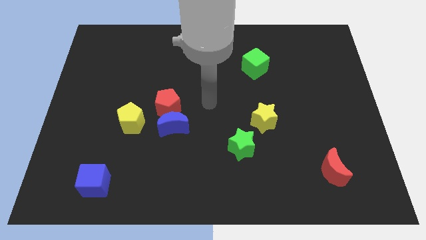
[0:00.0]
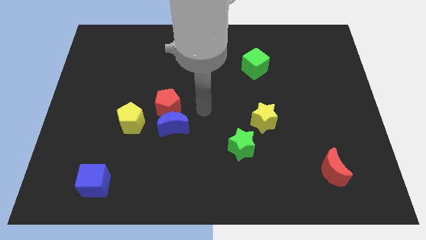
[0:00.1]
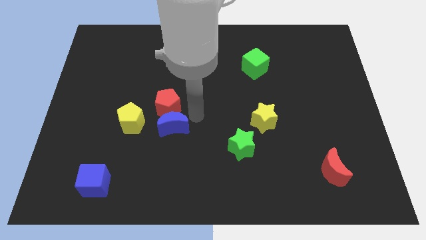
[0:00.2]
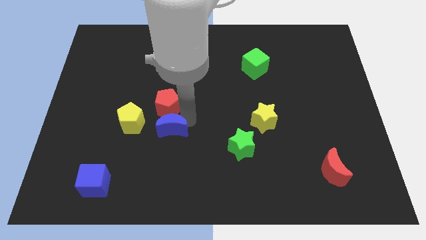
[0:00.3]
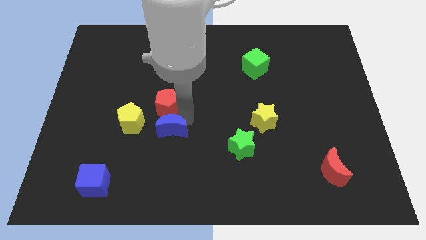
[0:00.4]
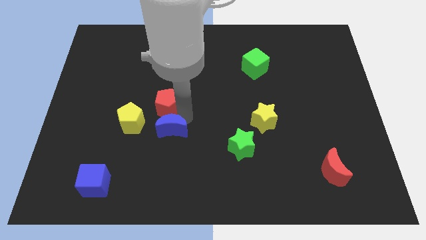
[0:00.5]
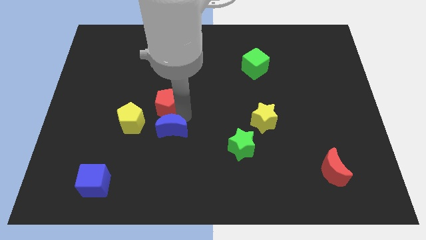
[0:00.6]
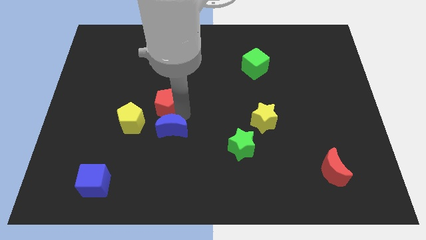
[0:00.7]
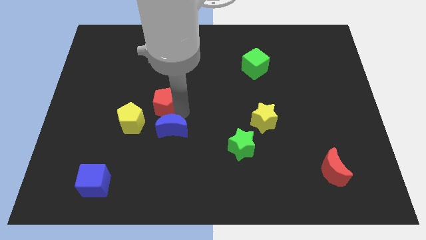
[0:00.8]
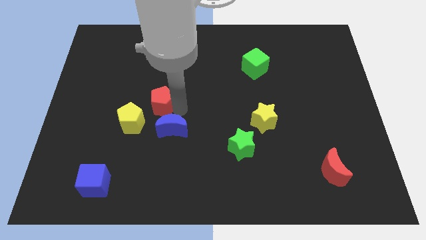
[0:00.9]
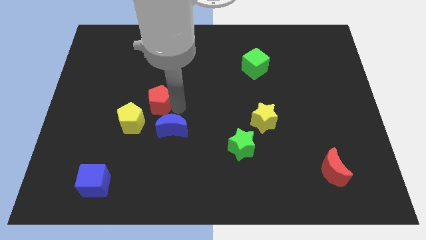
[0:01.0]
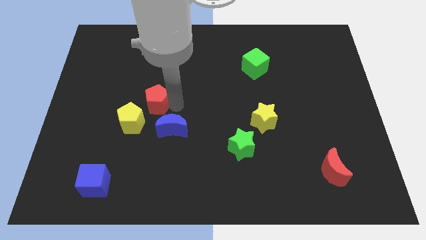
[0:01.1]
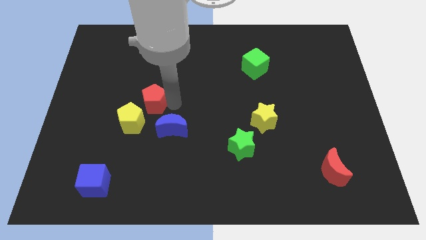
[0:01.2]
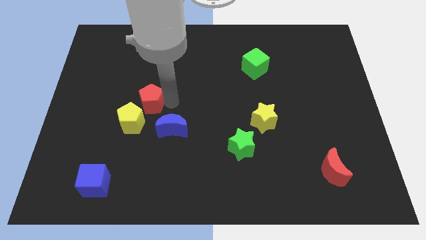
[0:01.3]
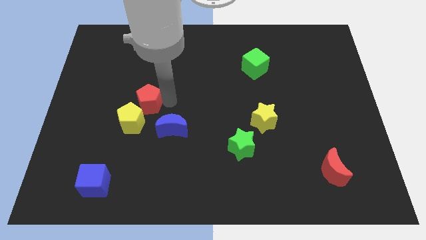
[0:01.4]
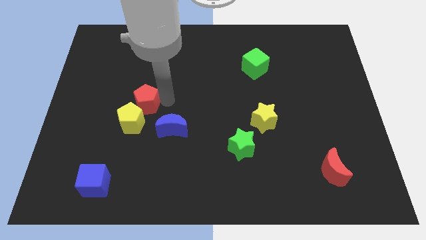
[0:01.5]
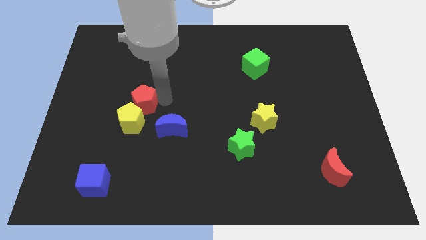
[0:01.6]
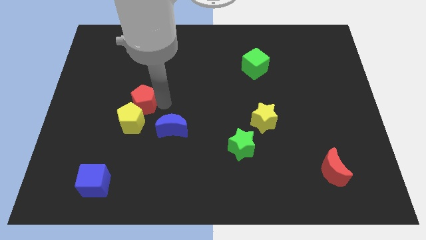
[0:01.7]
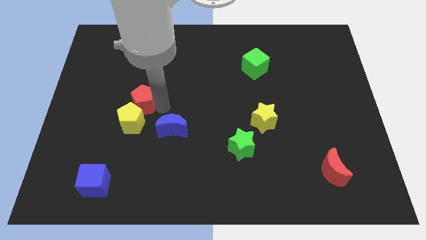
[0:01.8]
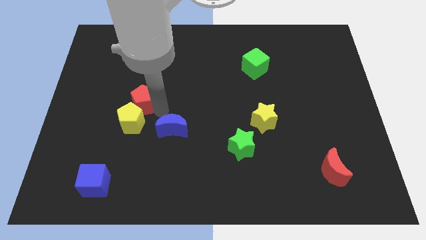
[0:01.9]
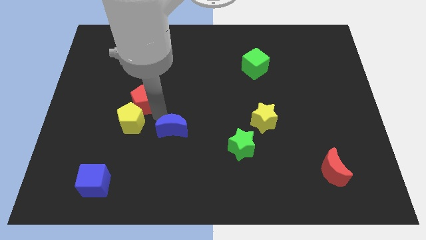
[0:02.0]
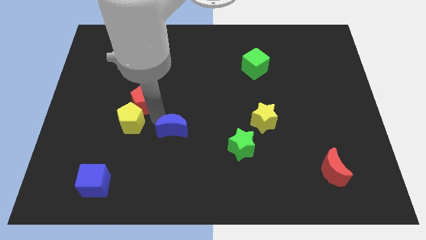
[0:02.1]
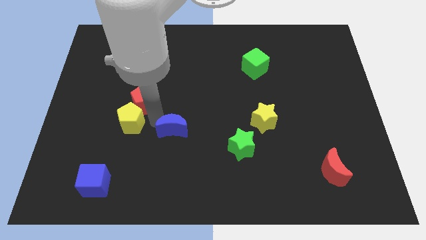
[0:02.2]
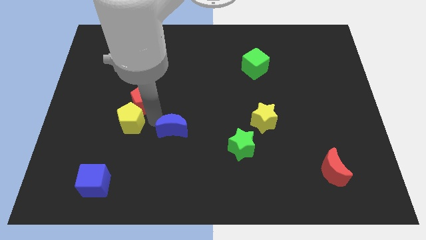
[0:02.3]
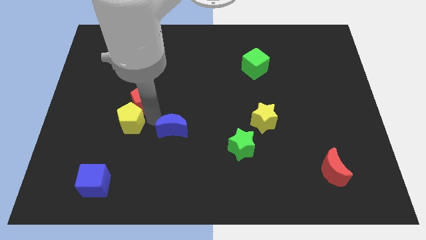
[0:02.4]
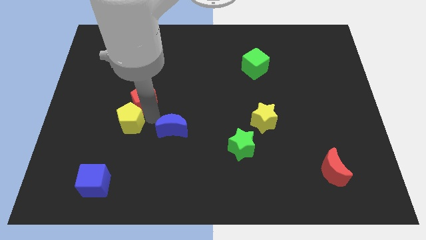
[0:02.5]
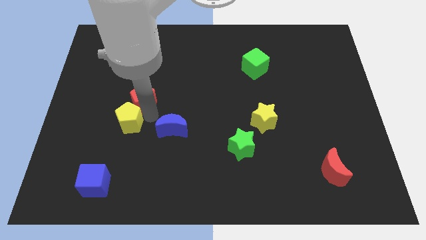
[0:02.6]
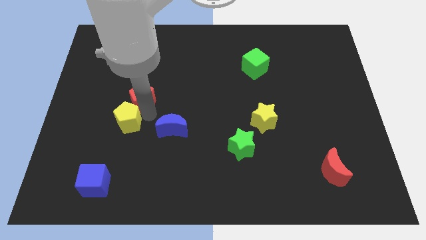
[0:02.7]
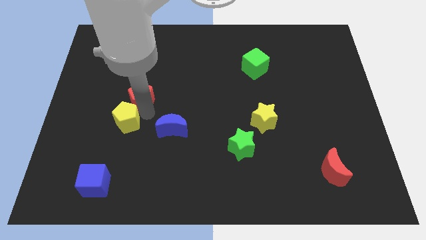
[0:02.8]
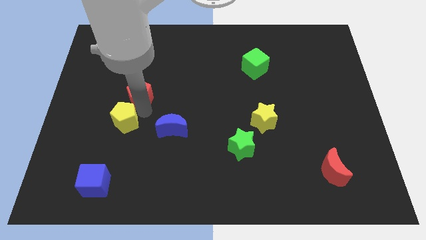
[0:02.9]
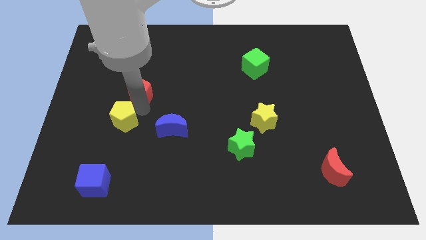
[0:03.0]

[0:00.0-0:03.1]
slightly push the red pentagon up and then to the left

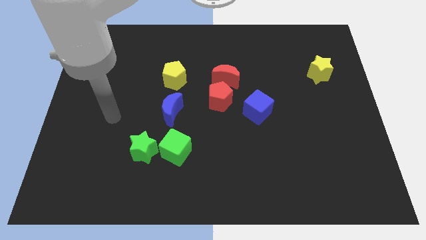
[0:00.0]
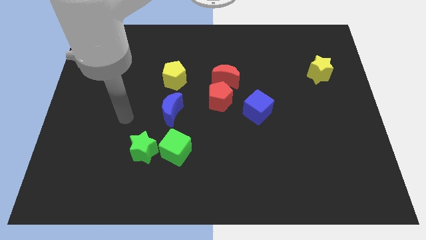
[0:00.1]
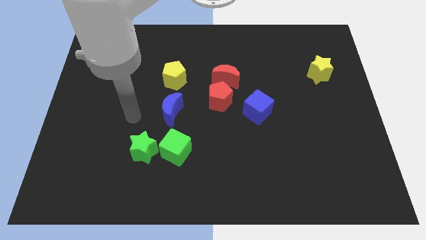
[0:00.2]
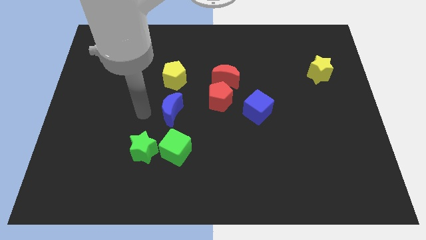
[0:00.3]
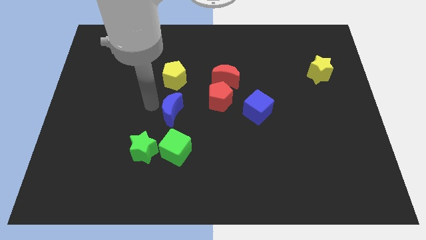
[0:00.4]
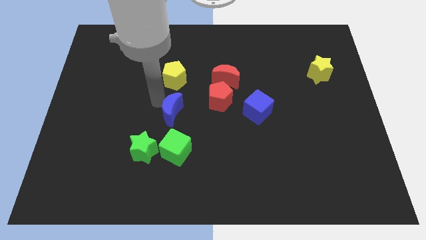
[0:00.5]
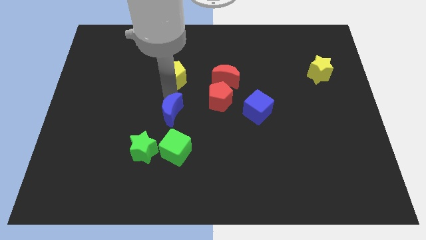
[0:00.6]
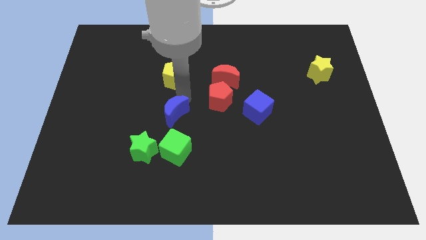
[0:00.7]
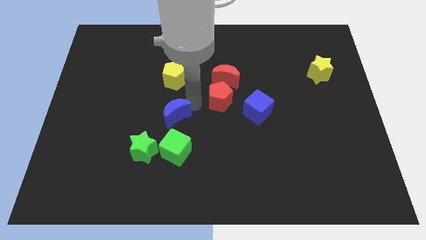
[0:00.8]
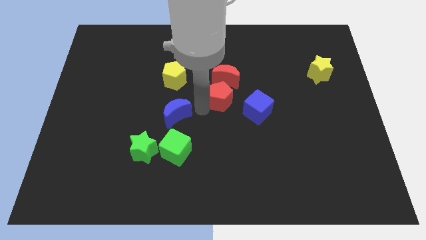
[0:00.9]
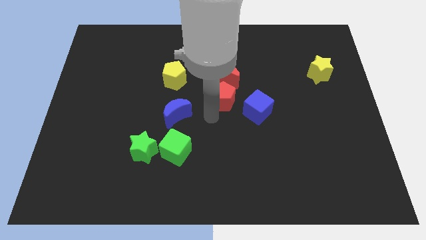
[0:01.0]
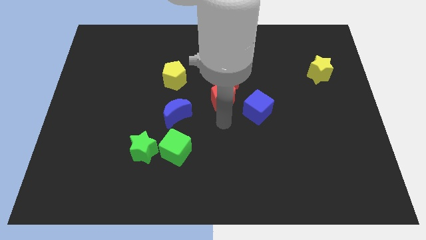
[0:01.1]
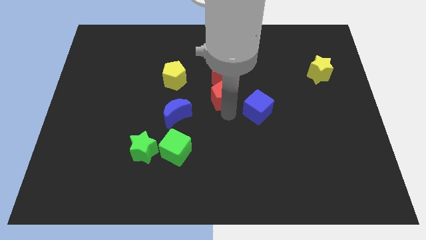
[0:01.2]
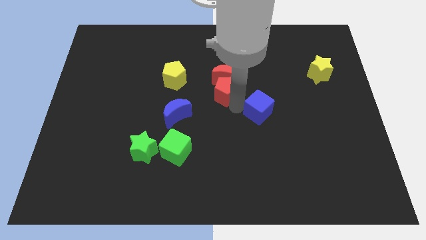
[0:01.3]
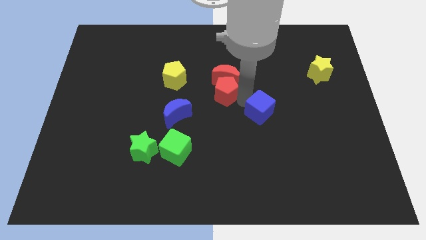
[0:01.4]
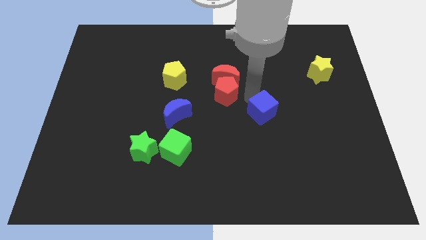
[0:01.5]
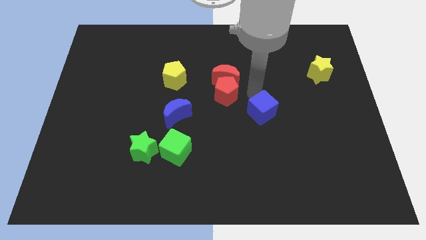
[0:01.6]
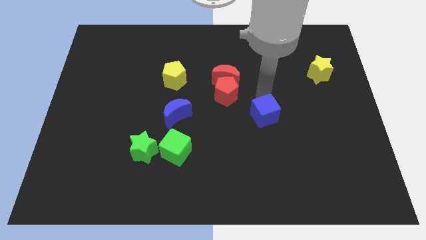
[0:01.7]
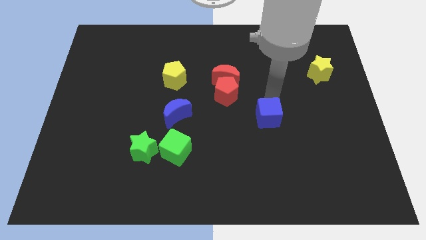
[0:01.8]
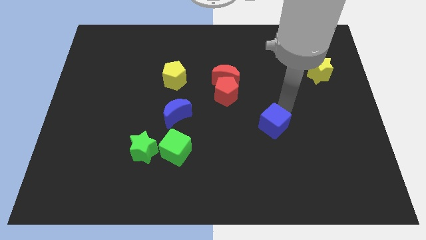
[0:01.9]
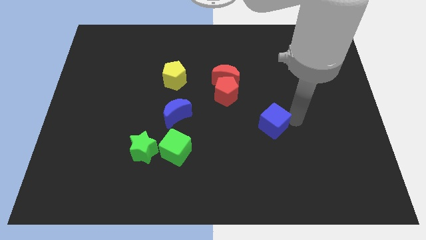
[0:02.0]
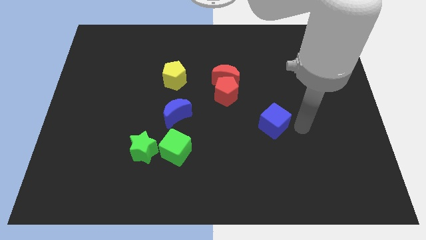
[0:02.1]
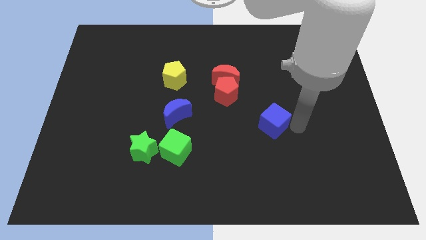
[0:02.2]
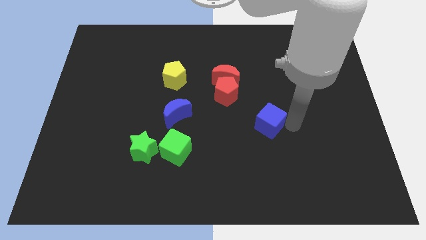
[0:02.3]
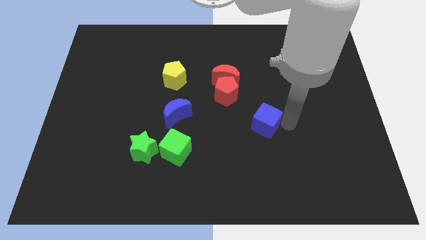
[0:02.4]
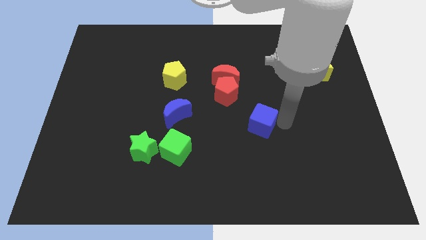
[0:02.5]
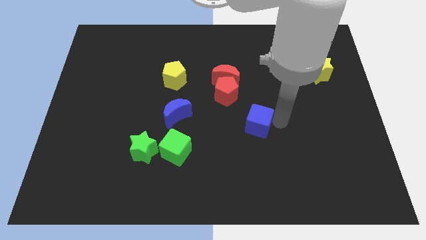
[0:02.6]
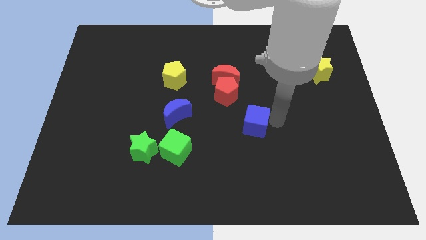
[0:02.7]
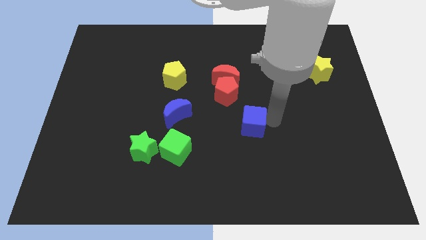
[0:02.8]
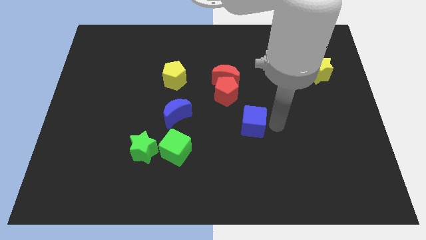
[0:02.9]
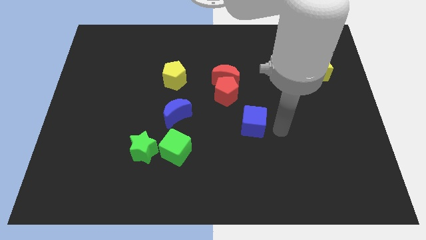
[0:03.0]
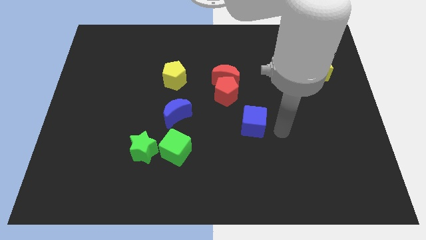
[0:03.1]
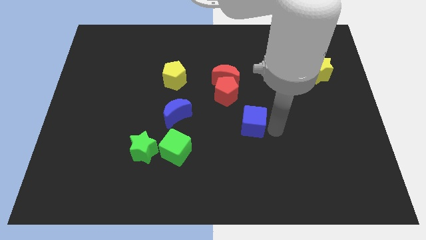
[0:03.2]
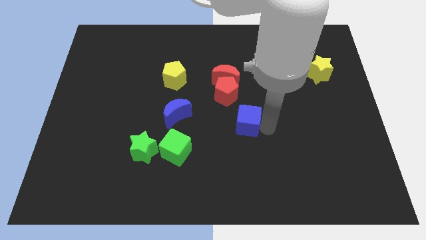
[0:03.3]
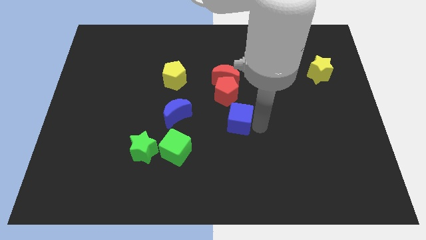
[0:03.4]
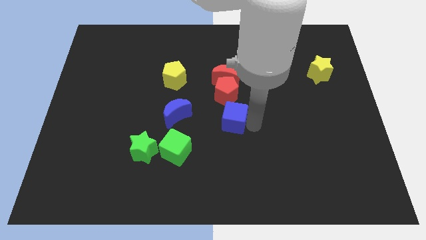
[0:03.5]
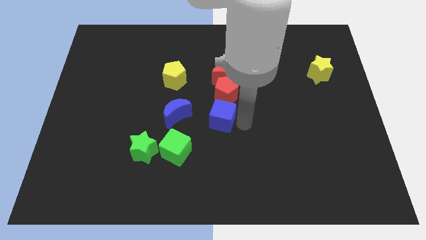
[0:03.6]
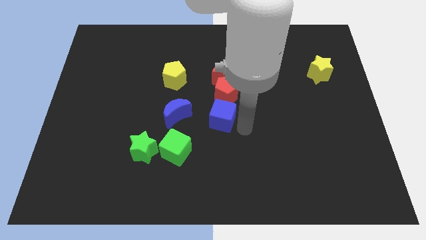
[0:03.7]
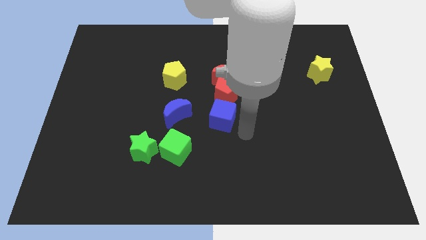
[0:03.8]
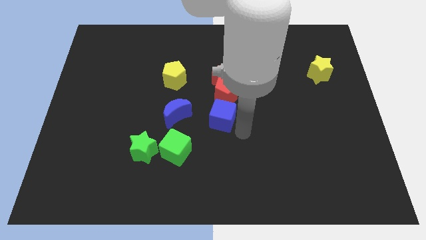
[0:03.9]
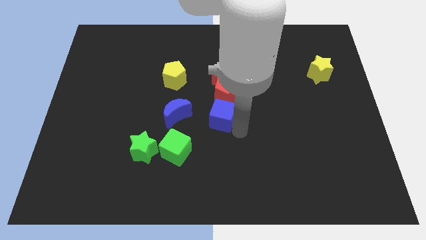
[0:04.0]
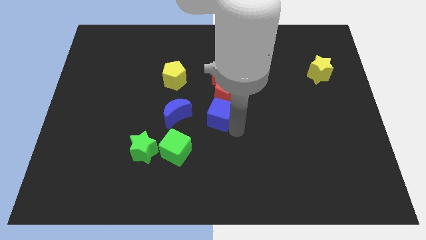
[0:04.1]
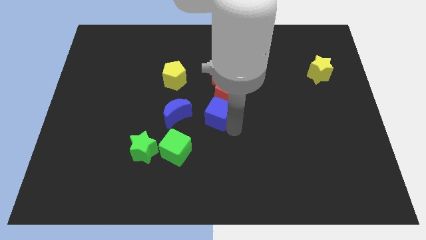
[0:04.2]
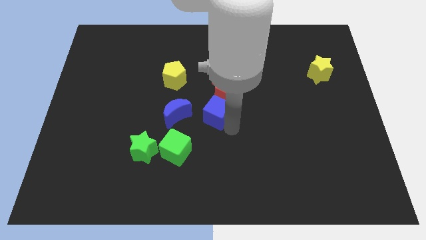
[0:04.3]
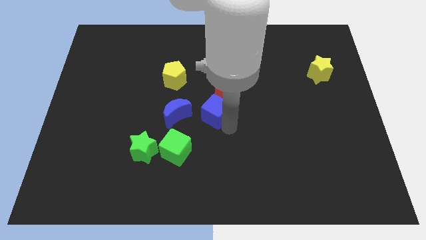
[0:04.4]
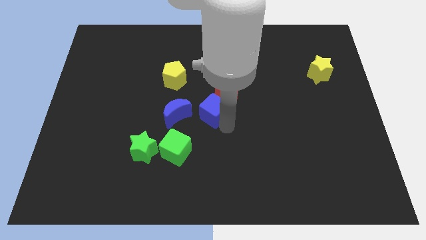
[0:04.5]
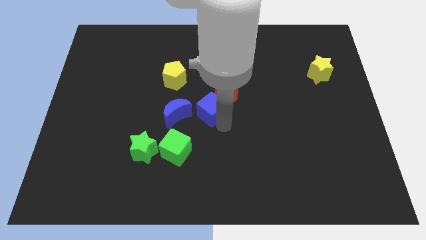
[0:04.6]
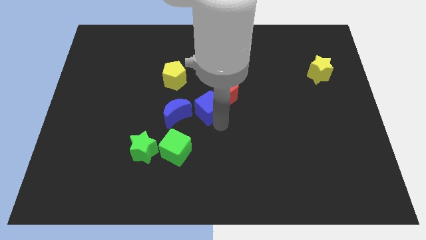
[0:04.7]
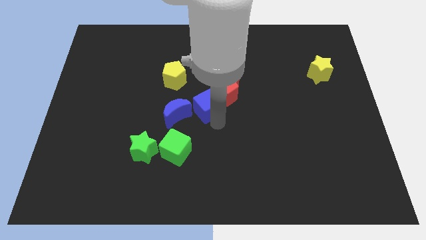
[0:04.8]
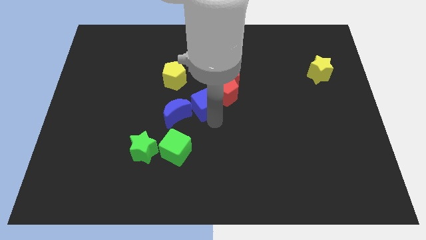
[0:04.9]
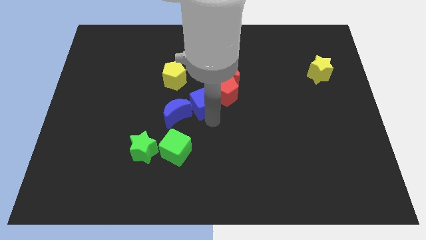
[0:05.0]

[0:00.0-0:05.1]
slightly push the blue cube up and to the left diagonally
